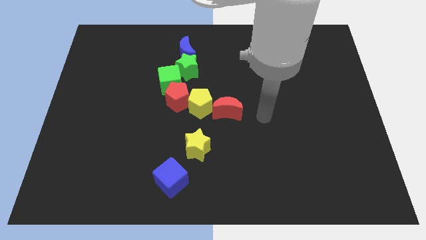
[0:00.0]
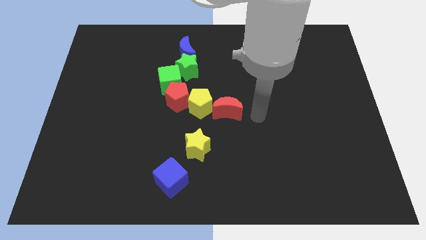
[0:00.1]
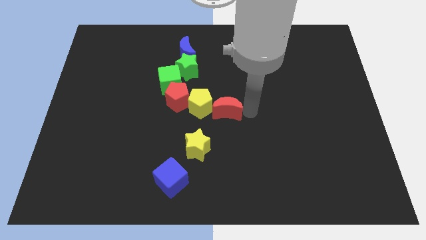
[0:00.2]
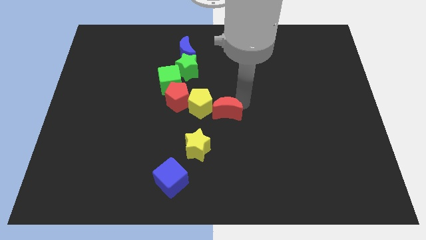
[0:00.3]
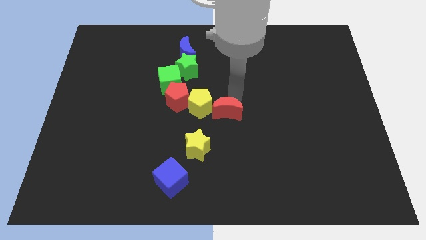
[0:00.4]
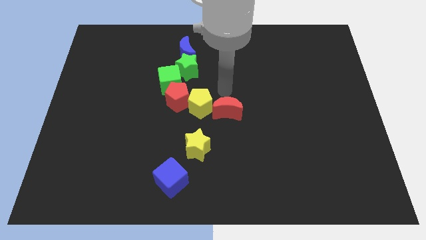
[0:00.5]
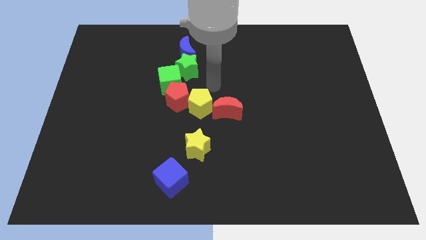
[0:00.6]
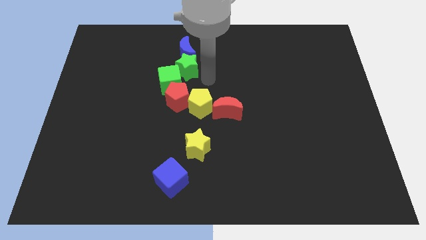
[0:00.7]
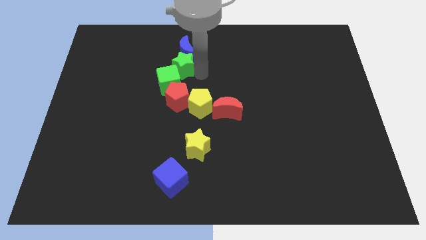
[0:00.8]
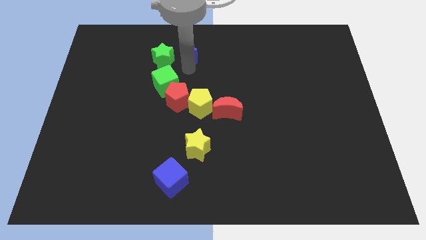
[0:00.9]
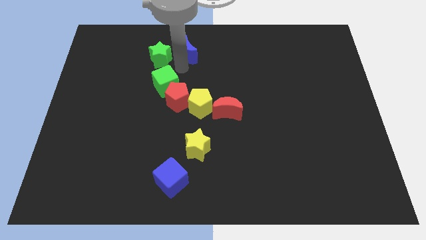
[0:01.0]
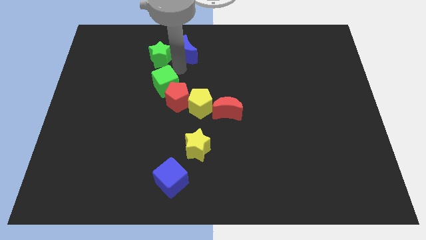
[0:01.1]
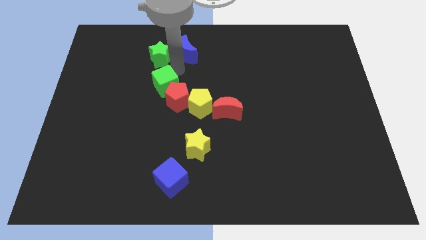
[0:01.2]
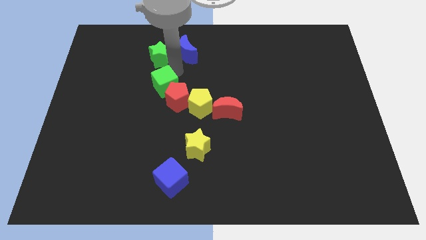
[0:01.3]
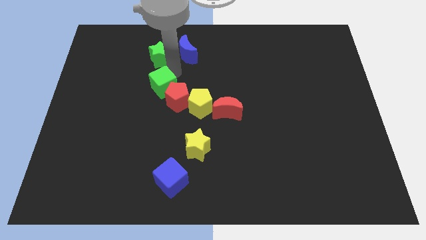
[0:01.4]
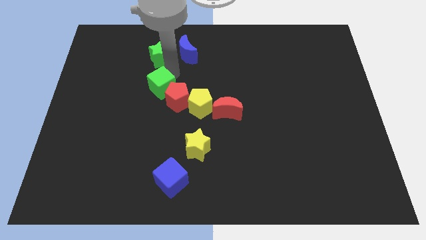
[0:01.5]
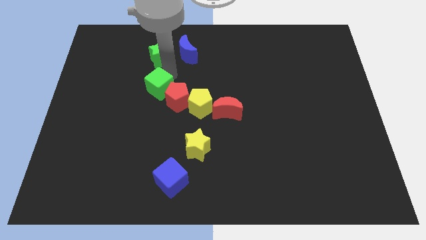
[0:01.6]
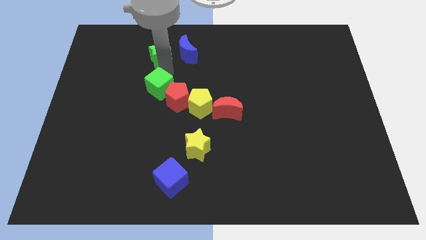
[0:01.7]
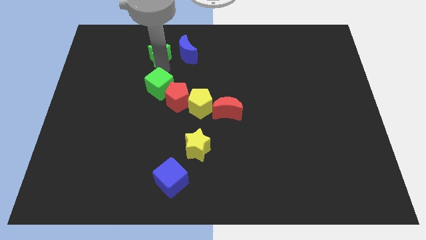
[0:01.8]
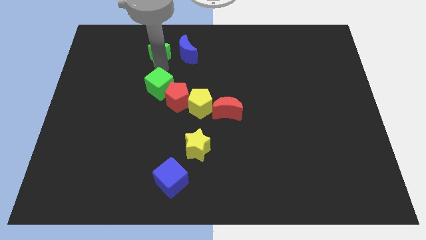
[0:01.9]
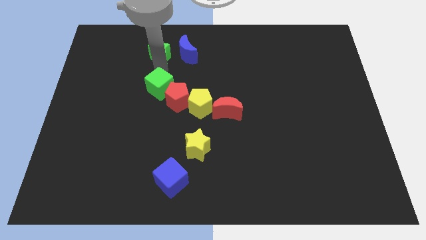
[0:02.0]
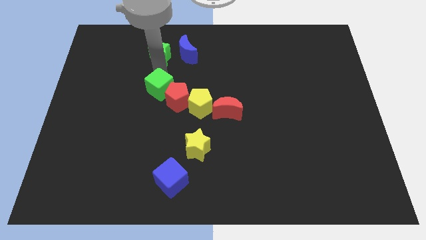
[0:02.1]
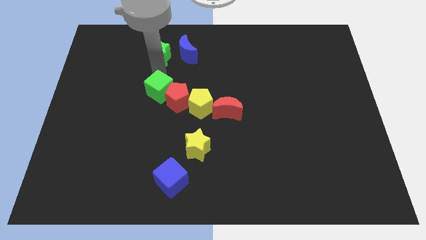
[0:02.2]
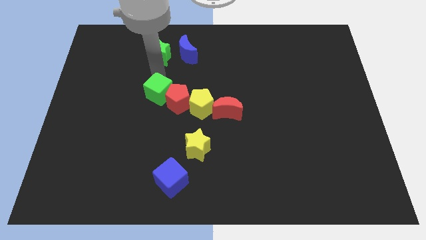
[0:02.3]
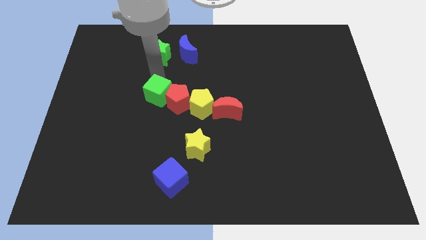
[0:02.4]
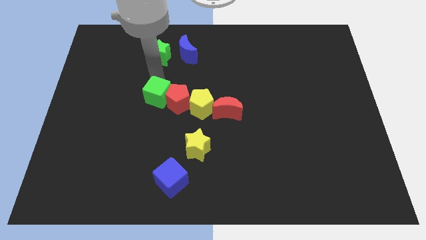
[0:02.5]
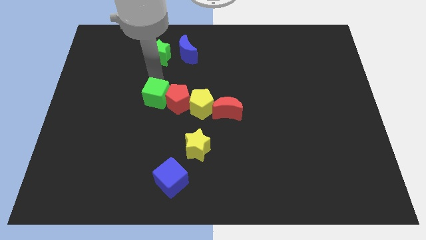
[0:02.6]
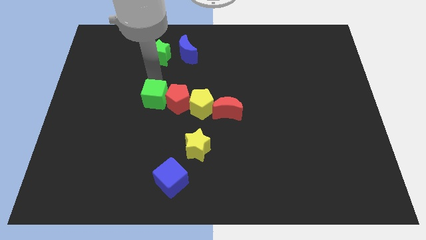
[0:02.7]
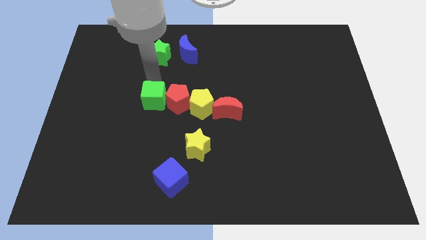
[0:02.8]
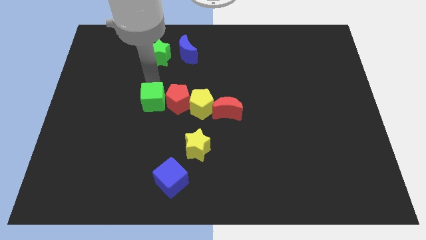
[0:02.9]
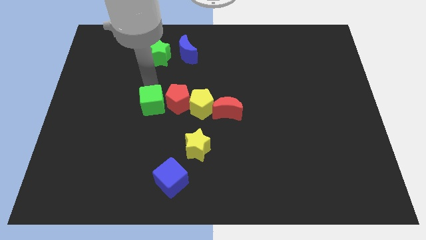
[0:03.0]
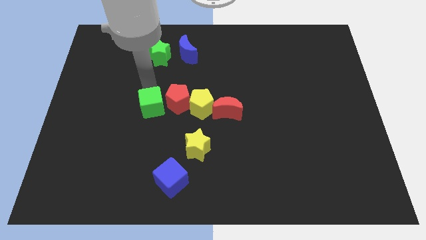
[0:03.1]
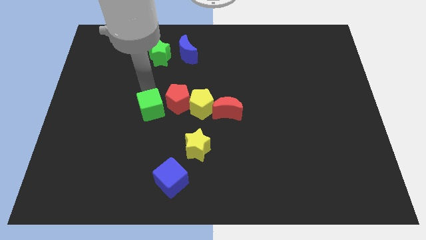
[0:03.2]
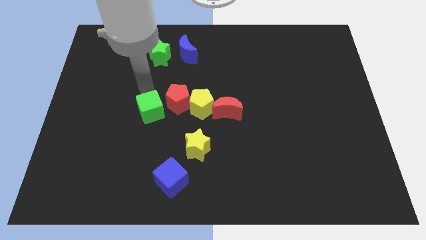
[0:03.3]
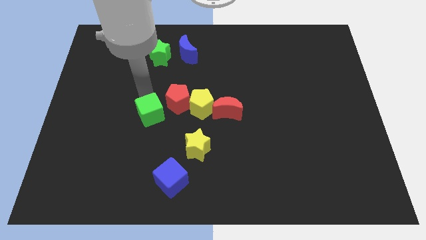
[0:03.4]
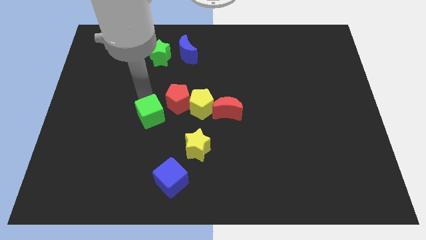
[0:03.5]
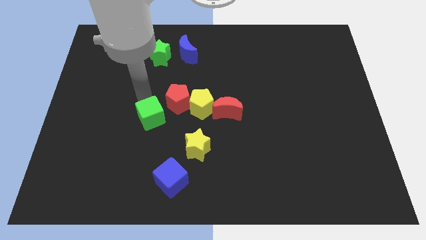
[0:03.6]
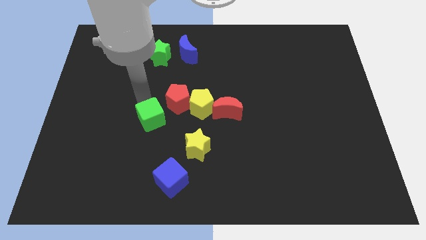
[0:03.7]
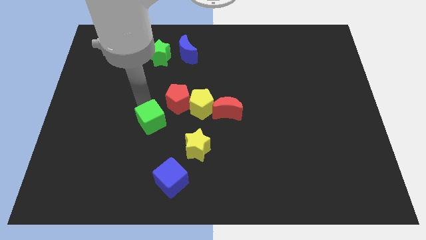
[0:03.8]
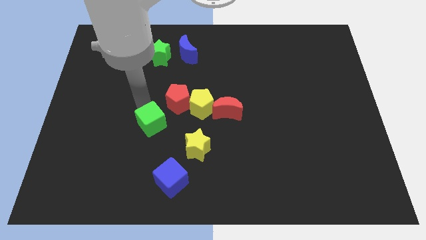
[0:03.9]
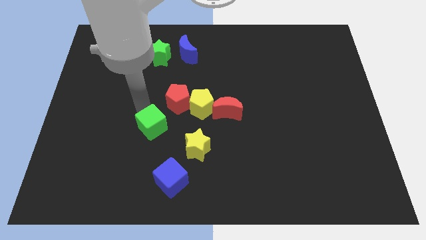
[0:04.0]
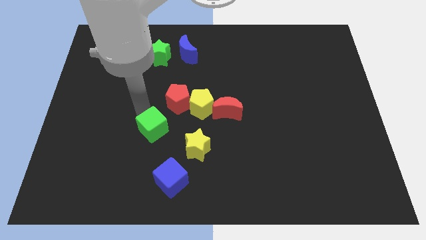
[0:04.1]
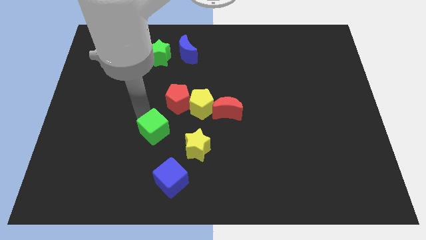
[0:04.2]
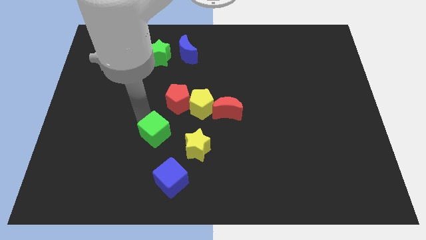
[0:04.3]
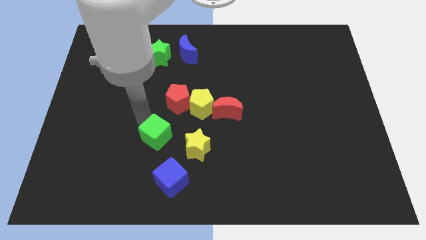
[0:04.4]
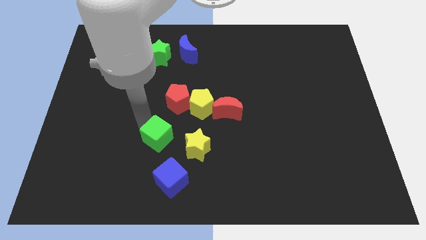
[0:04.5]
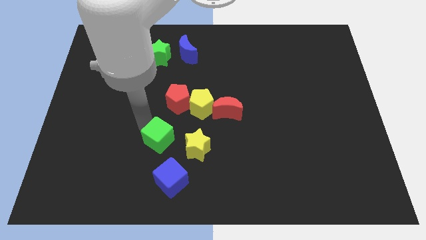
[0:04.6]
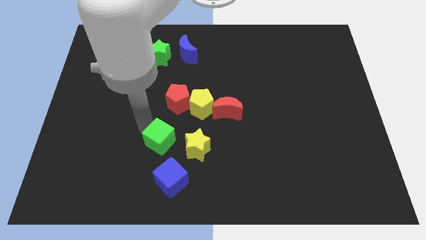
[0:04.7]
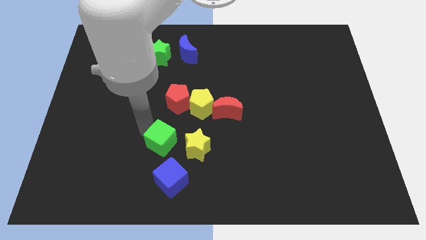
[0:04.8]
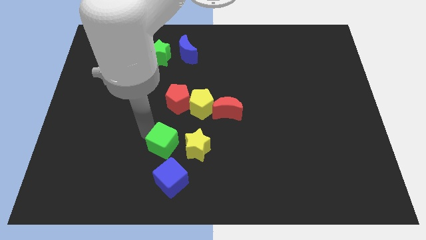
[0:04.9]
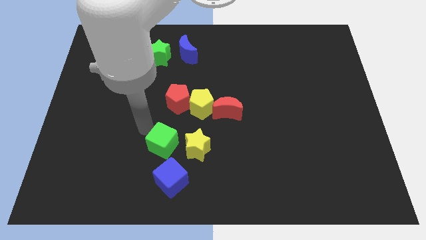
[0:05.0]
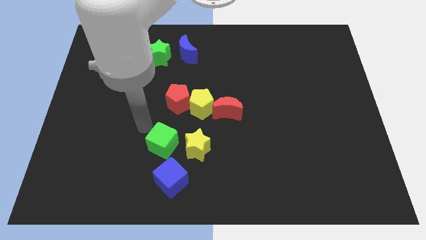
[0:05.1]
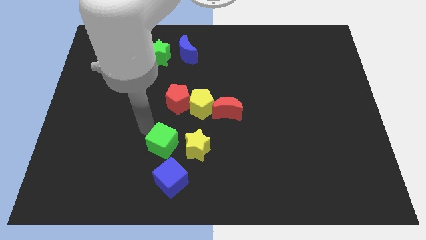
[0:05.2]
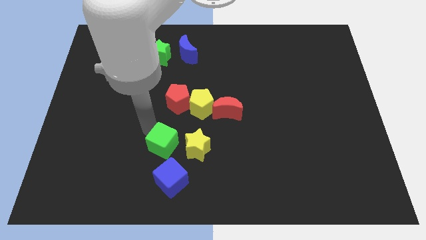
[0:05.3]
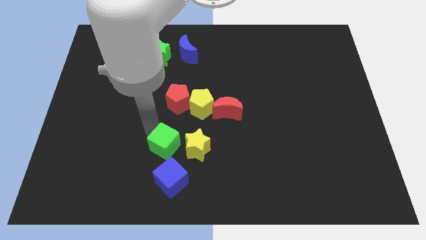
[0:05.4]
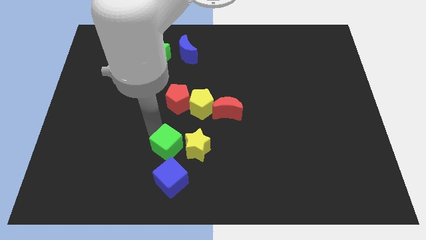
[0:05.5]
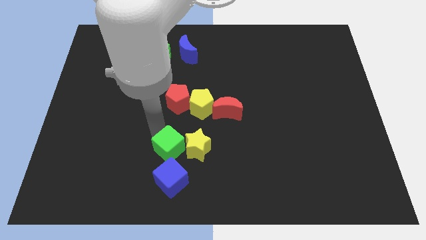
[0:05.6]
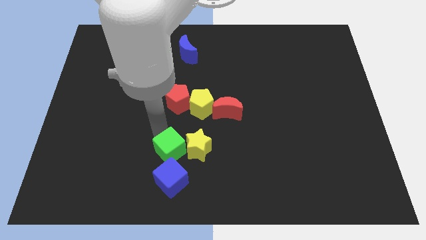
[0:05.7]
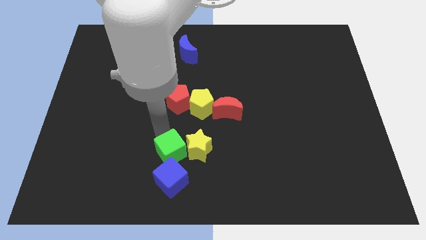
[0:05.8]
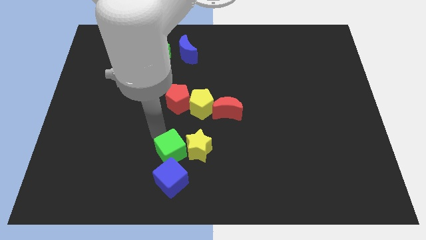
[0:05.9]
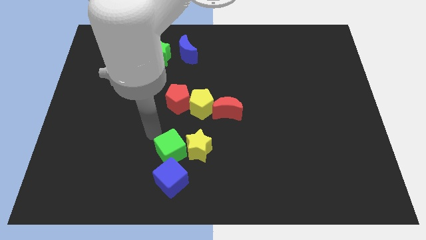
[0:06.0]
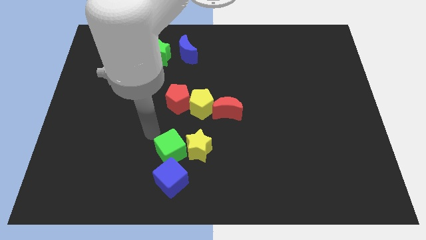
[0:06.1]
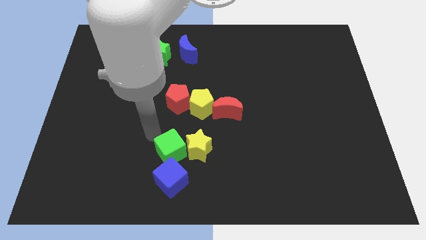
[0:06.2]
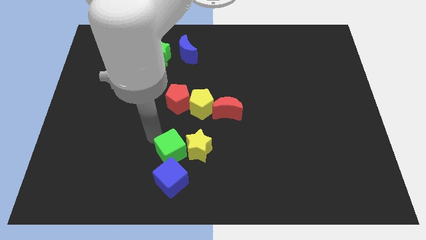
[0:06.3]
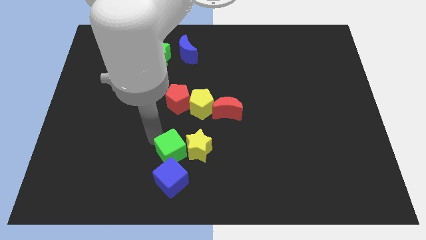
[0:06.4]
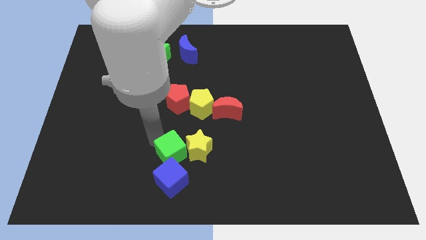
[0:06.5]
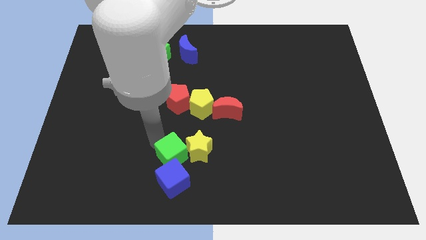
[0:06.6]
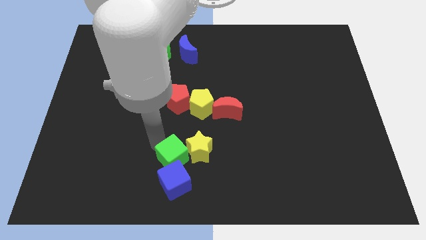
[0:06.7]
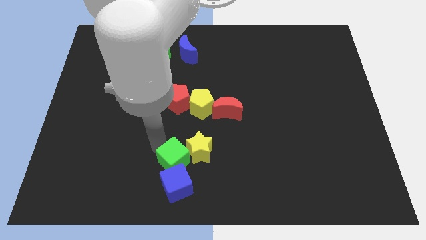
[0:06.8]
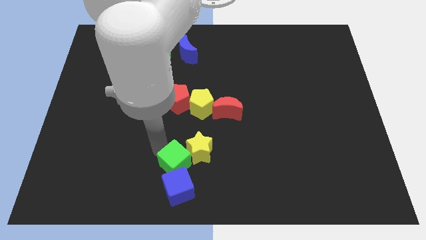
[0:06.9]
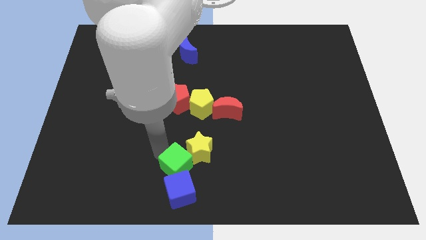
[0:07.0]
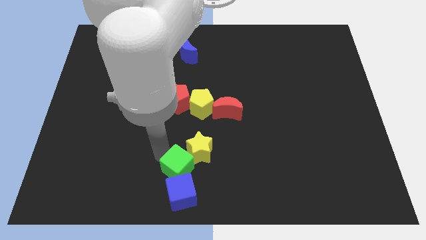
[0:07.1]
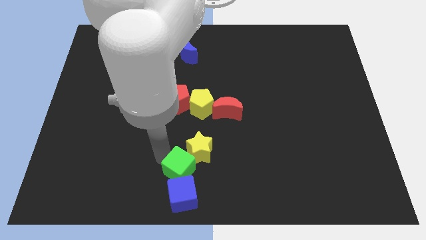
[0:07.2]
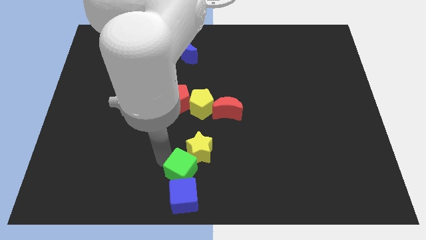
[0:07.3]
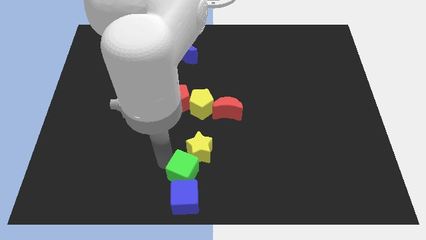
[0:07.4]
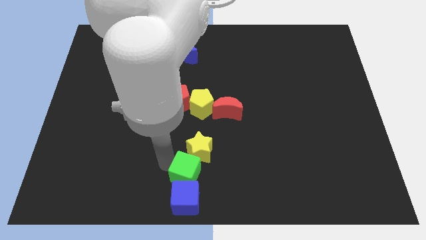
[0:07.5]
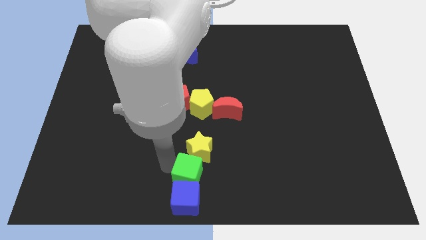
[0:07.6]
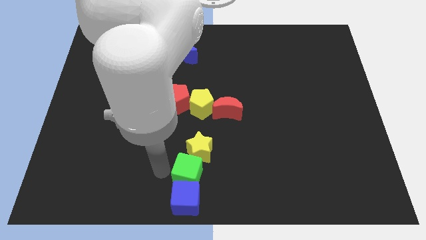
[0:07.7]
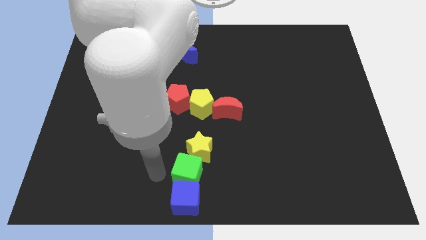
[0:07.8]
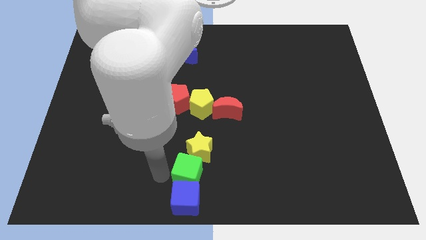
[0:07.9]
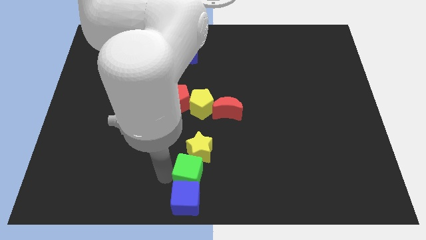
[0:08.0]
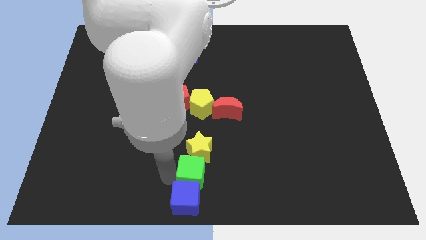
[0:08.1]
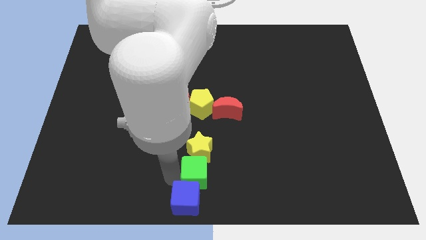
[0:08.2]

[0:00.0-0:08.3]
slide the green cube diagonally down and to the right of the yellow star
